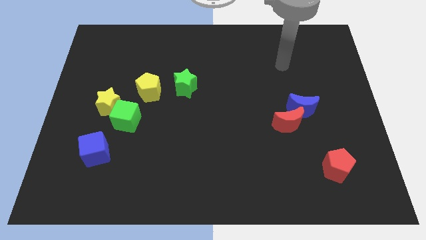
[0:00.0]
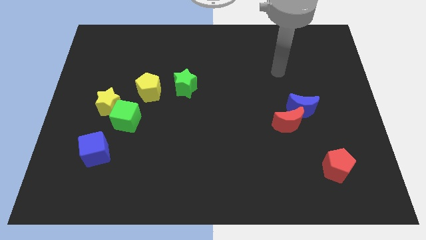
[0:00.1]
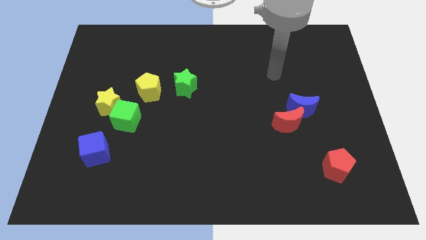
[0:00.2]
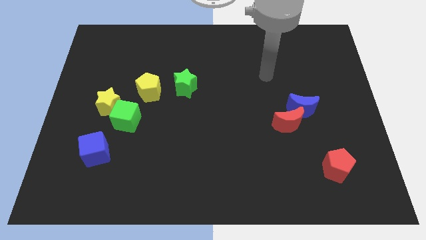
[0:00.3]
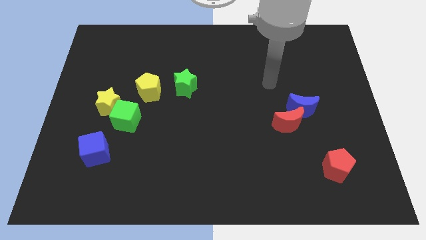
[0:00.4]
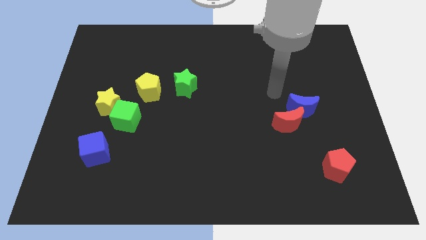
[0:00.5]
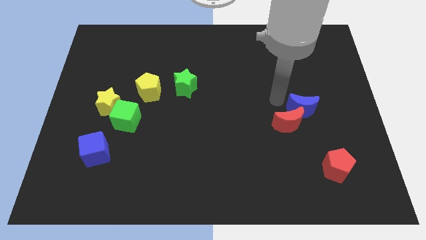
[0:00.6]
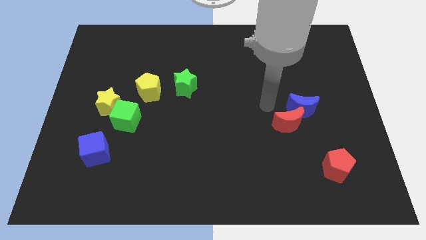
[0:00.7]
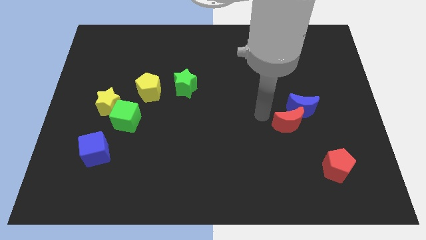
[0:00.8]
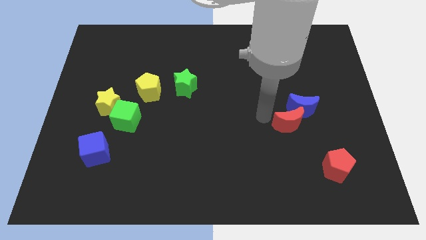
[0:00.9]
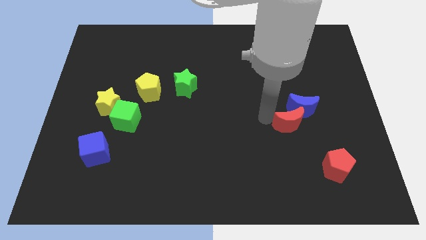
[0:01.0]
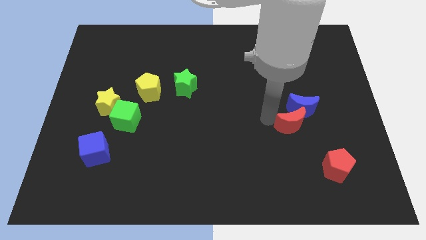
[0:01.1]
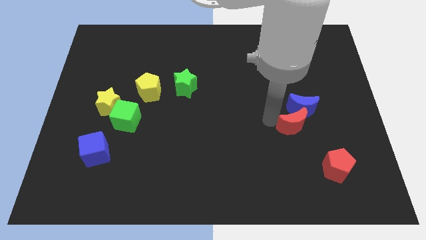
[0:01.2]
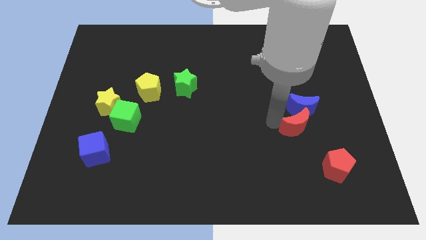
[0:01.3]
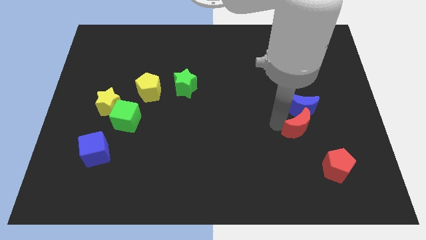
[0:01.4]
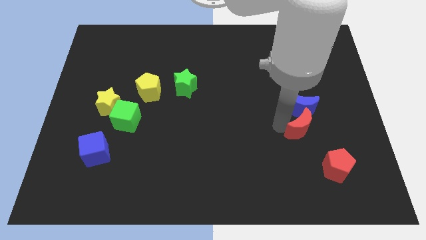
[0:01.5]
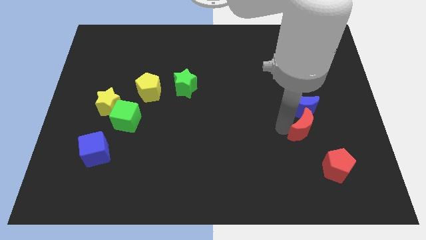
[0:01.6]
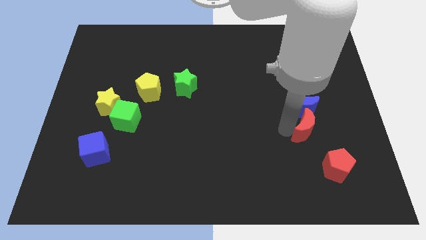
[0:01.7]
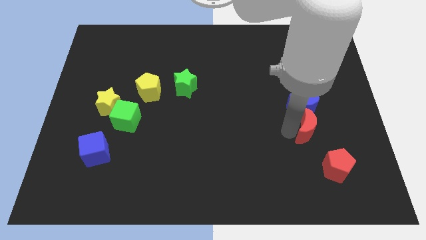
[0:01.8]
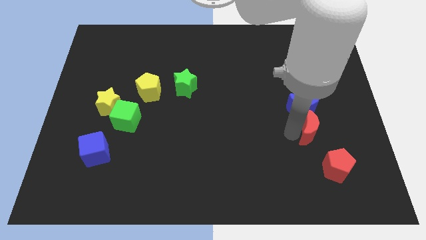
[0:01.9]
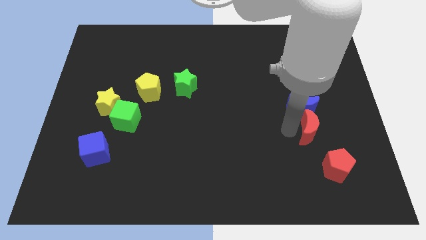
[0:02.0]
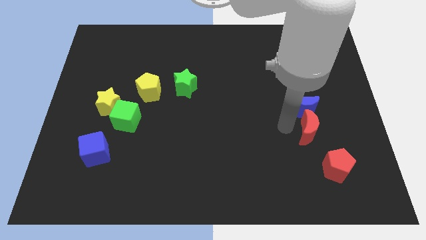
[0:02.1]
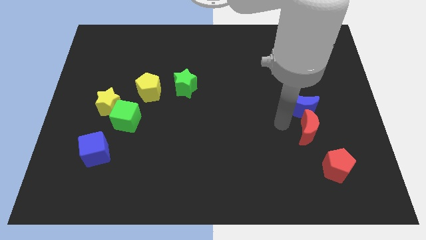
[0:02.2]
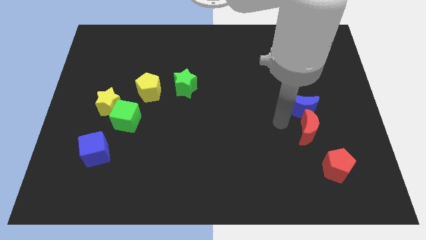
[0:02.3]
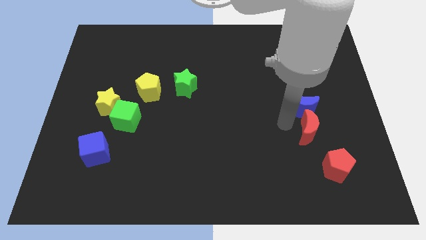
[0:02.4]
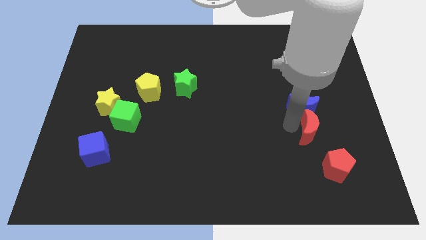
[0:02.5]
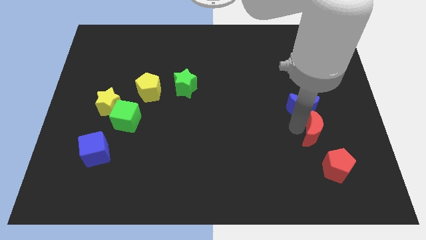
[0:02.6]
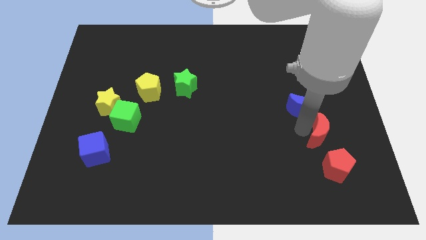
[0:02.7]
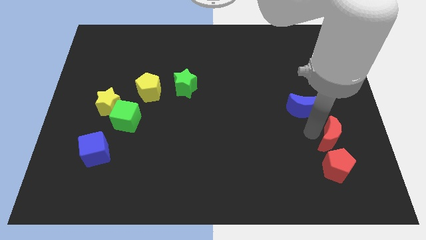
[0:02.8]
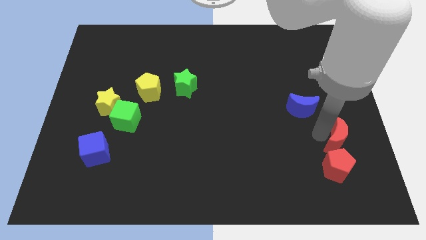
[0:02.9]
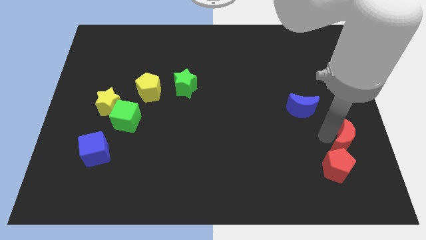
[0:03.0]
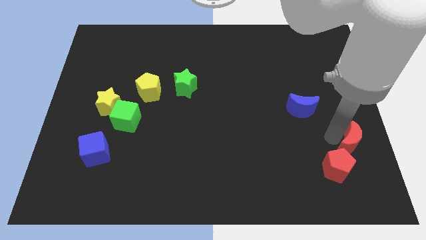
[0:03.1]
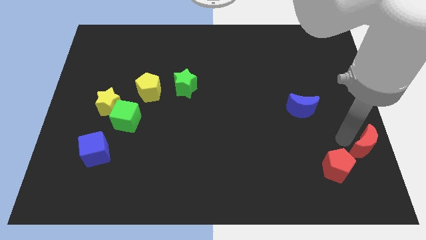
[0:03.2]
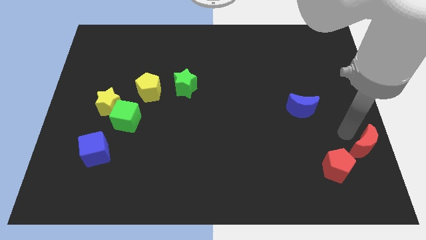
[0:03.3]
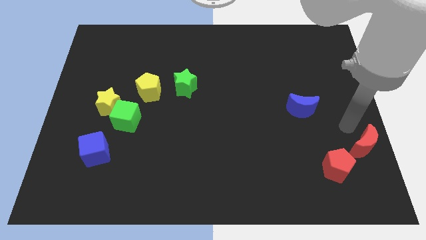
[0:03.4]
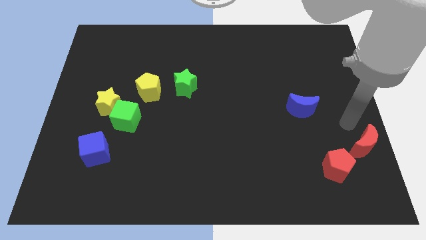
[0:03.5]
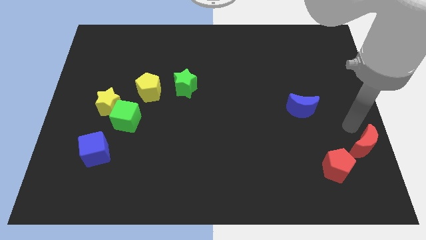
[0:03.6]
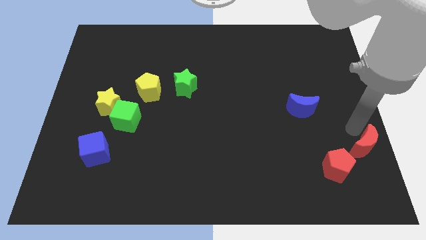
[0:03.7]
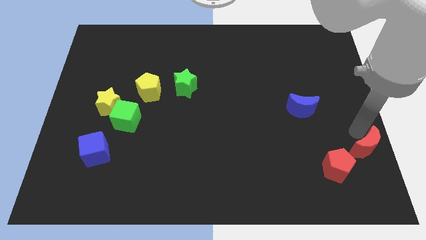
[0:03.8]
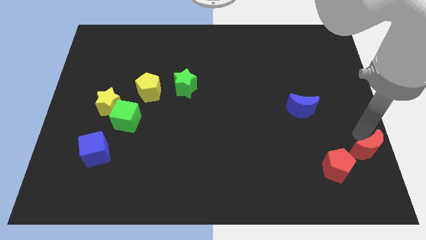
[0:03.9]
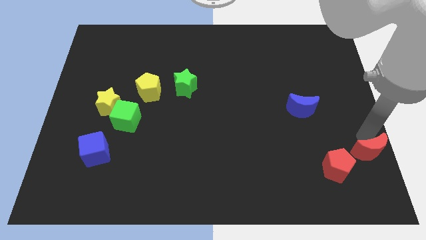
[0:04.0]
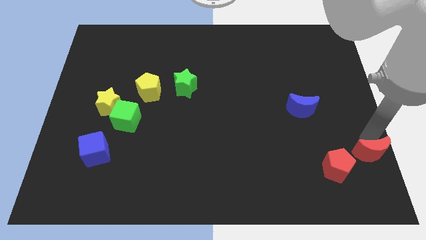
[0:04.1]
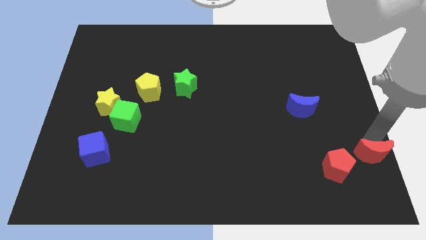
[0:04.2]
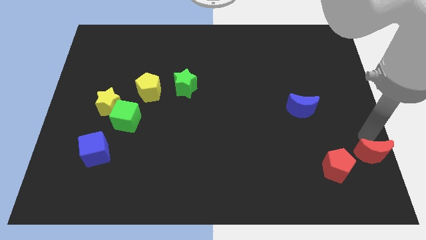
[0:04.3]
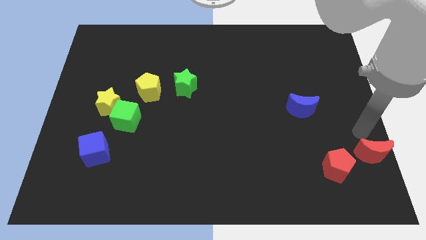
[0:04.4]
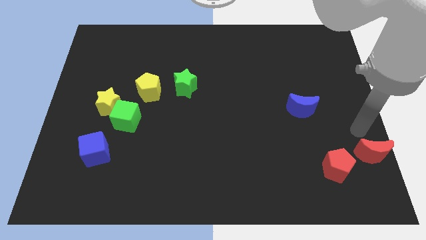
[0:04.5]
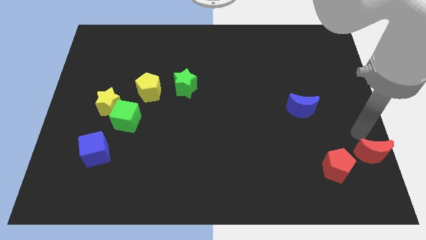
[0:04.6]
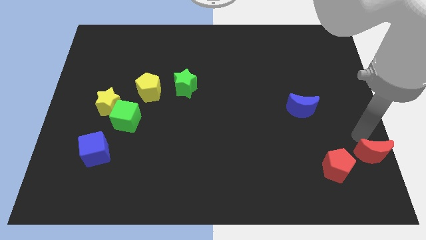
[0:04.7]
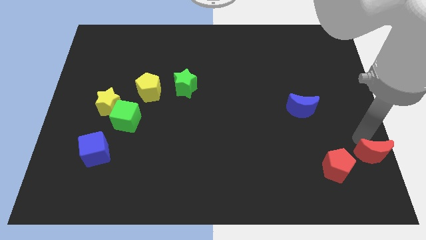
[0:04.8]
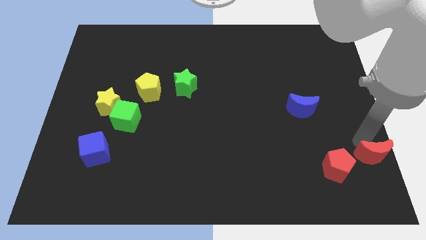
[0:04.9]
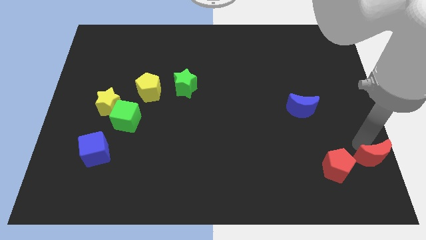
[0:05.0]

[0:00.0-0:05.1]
put the red moon to the bottom right of the board

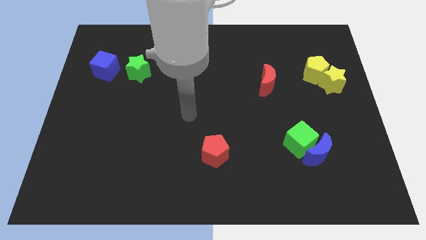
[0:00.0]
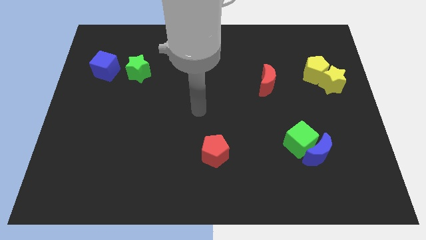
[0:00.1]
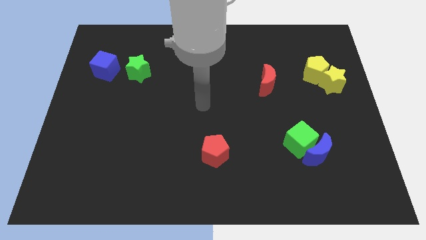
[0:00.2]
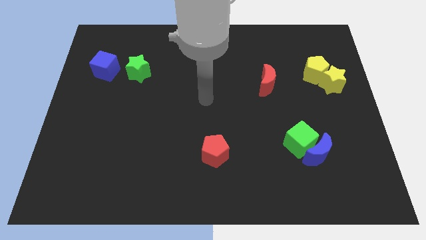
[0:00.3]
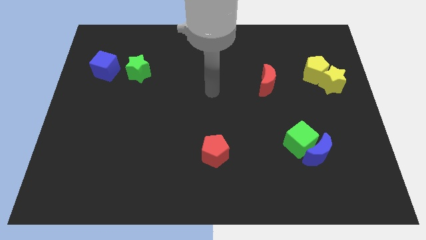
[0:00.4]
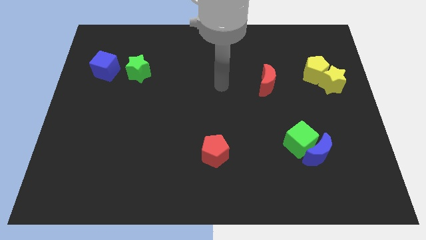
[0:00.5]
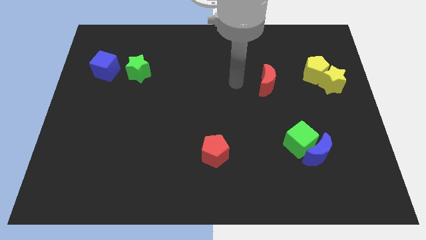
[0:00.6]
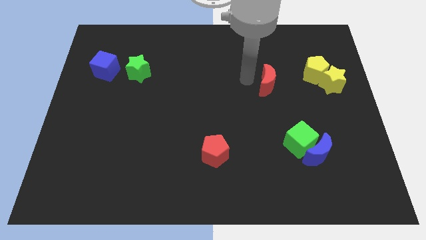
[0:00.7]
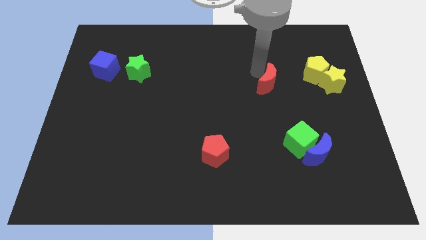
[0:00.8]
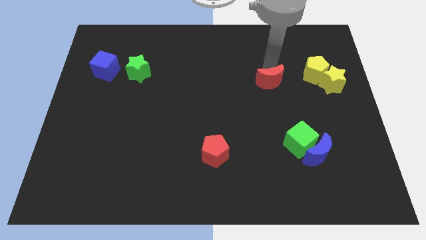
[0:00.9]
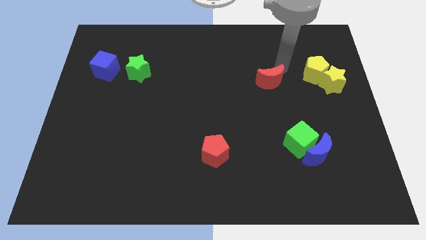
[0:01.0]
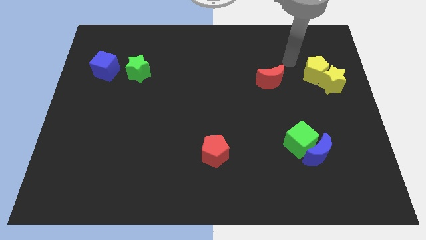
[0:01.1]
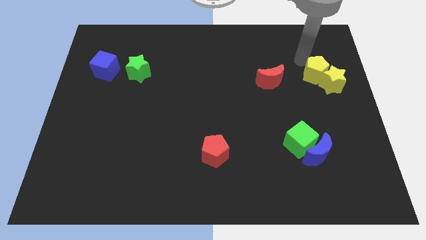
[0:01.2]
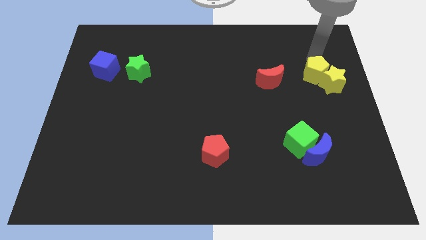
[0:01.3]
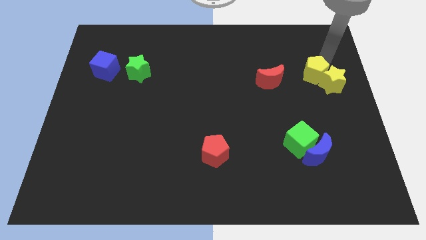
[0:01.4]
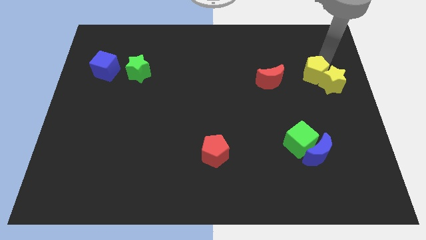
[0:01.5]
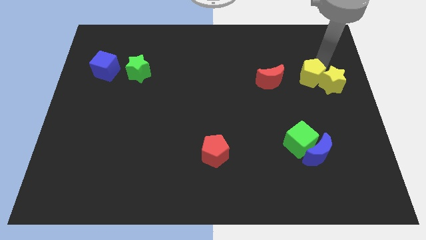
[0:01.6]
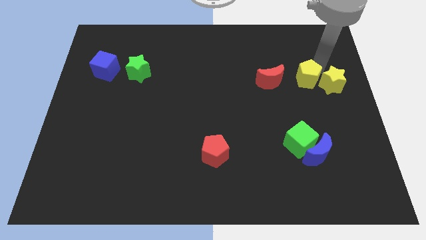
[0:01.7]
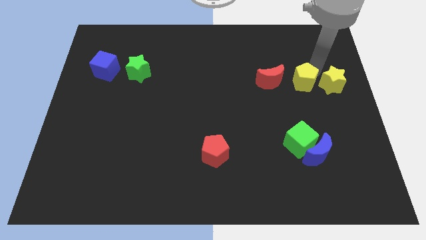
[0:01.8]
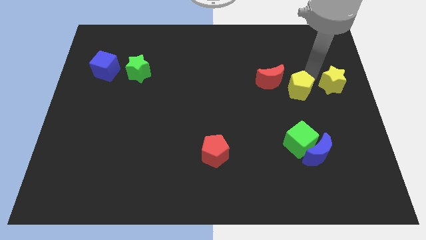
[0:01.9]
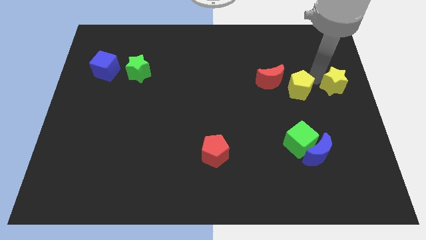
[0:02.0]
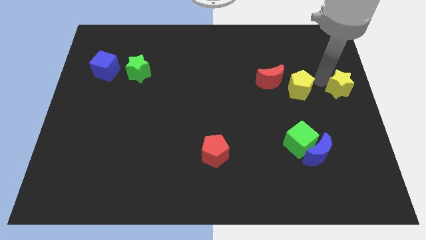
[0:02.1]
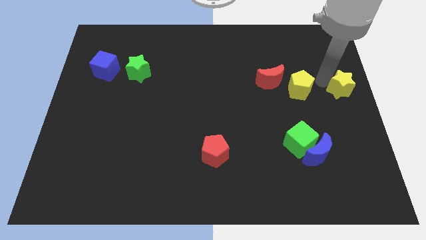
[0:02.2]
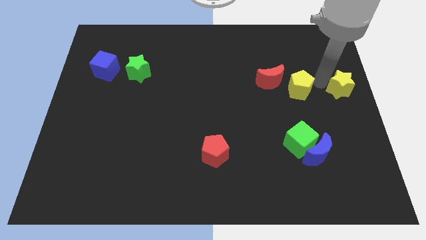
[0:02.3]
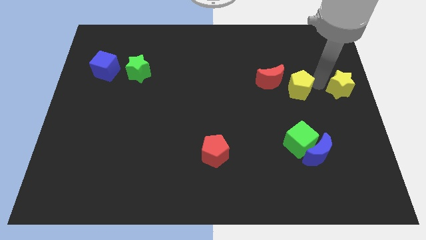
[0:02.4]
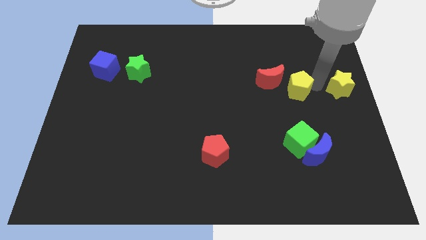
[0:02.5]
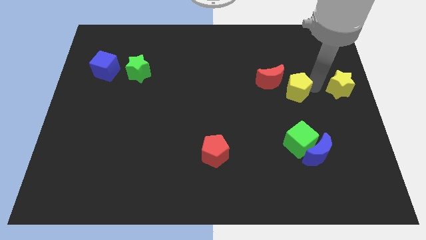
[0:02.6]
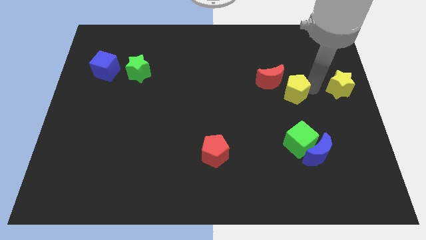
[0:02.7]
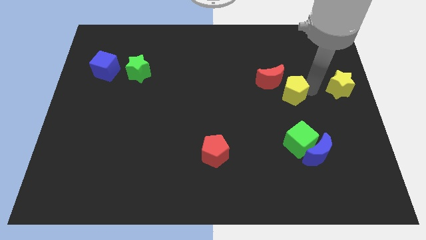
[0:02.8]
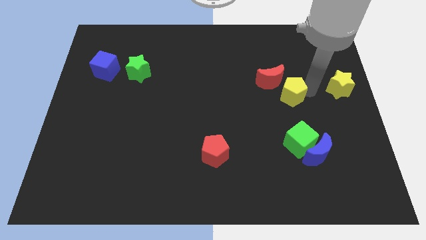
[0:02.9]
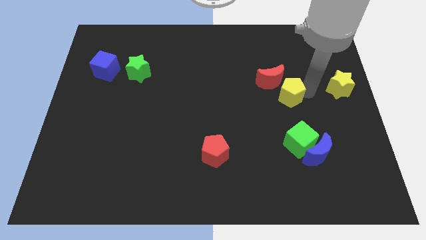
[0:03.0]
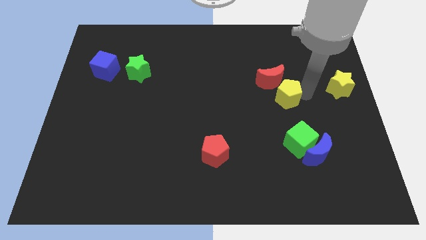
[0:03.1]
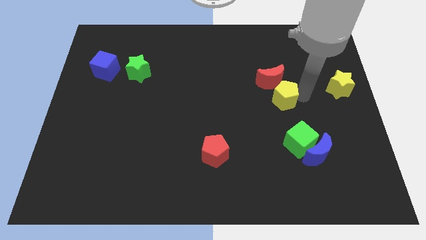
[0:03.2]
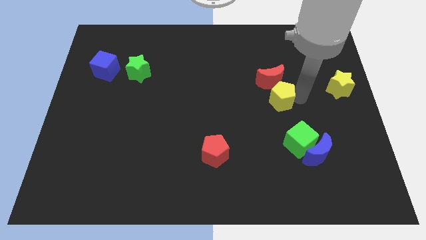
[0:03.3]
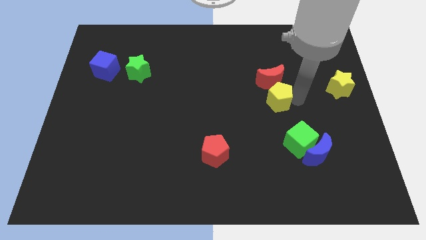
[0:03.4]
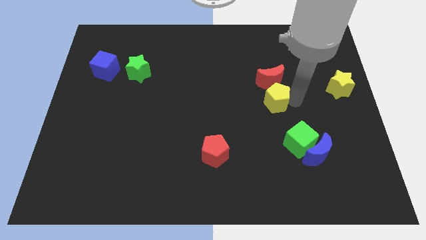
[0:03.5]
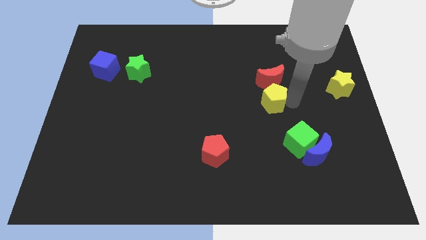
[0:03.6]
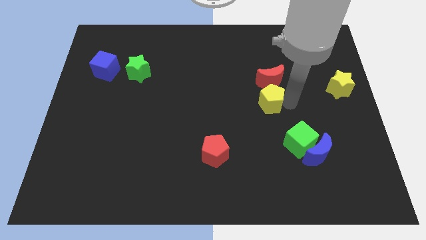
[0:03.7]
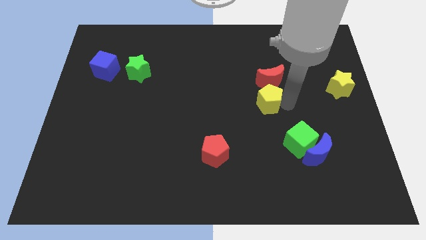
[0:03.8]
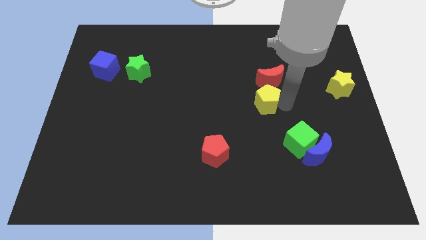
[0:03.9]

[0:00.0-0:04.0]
move the yellow pentagon to the middle
